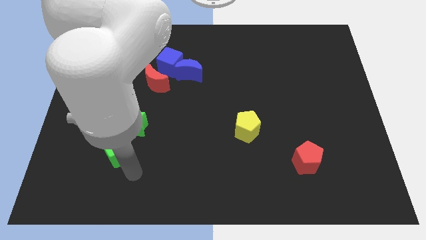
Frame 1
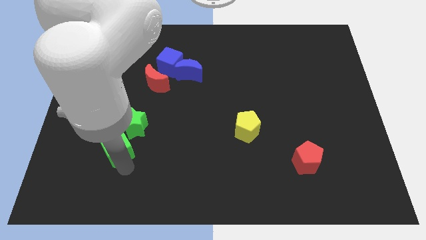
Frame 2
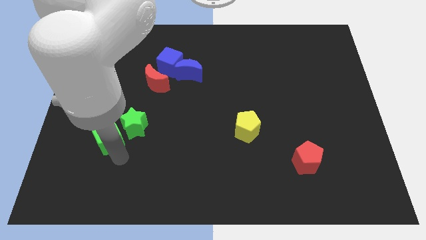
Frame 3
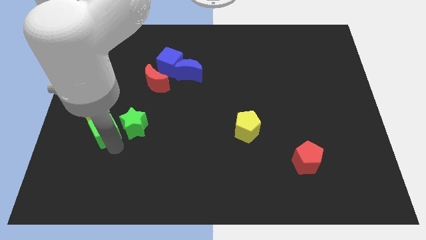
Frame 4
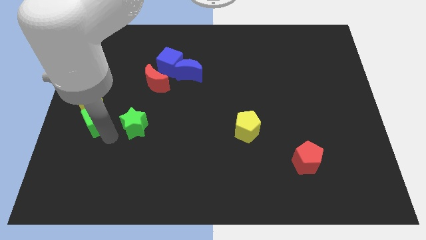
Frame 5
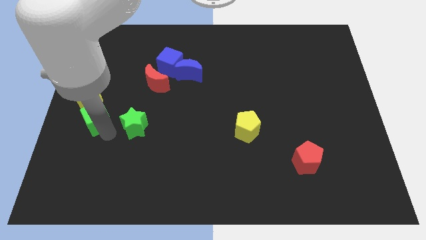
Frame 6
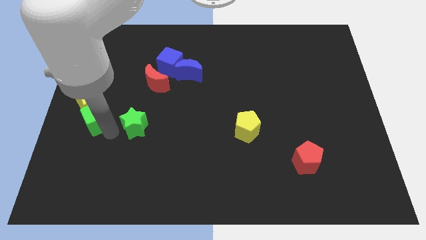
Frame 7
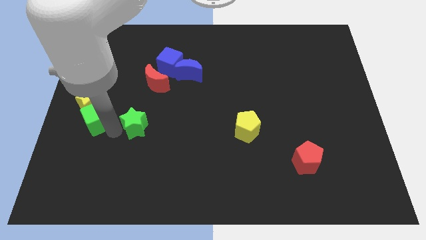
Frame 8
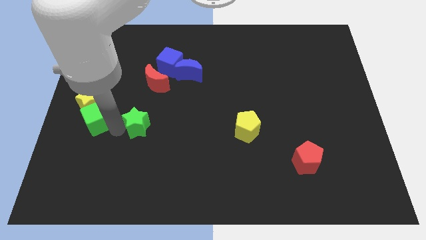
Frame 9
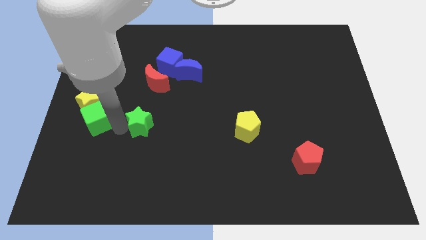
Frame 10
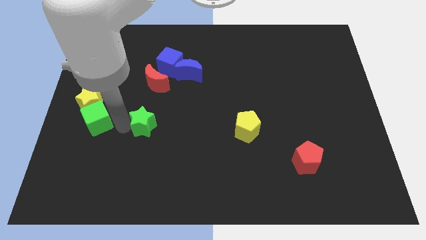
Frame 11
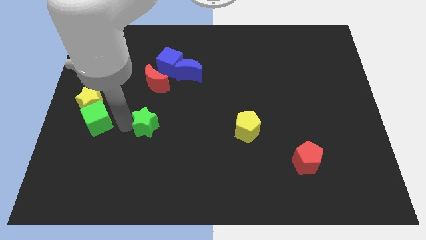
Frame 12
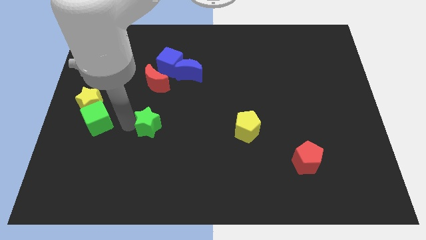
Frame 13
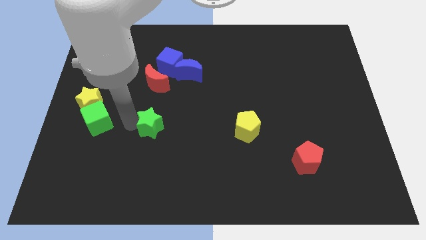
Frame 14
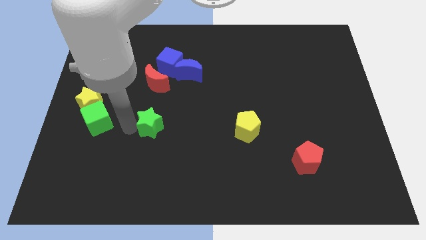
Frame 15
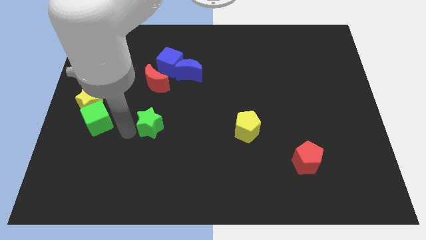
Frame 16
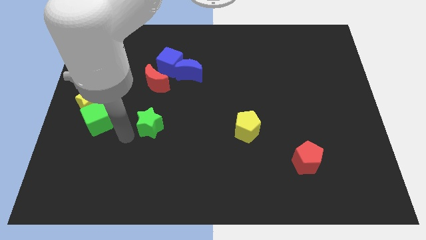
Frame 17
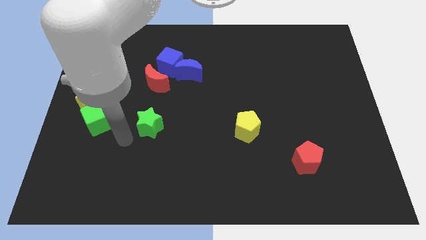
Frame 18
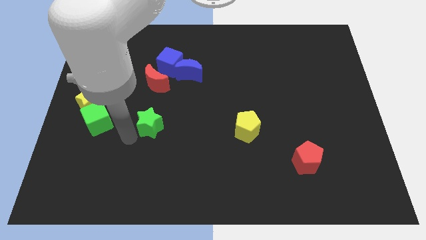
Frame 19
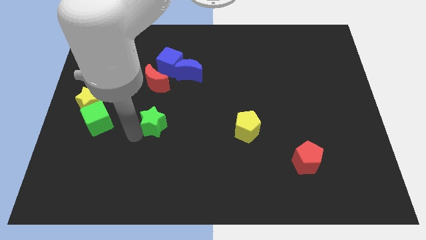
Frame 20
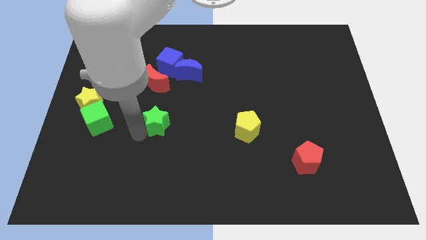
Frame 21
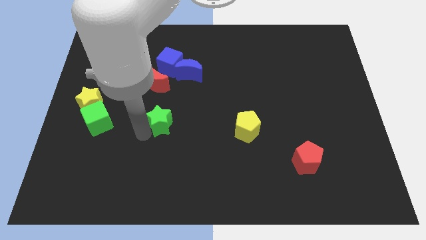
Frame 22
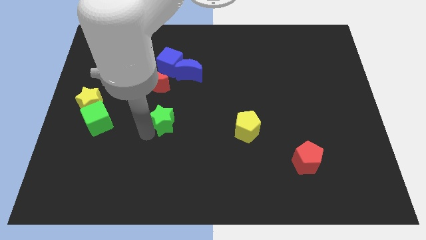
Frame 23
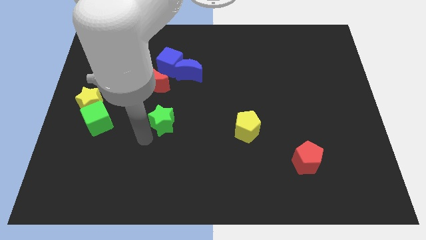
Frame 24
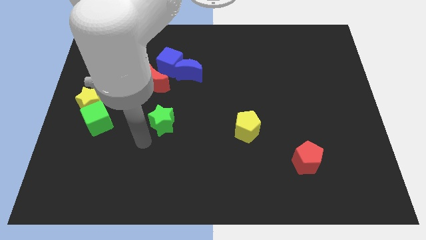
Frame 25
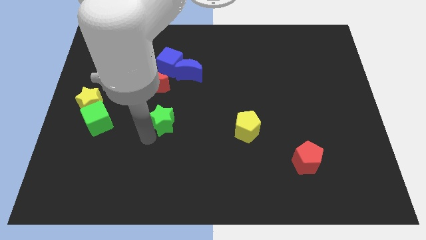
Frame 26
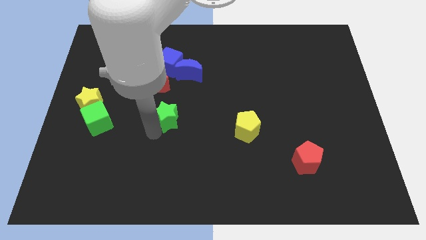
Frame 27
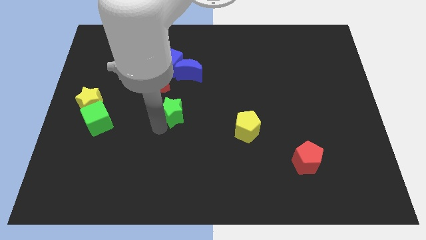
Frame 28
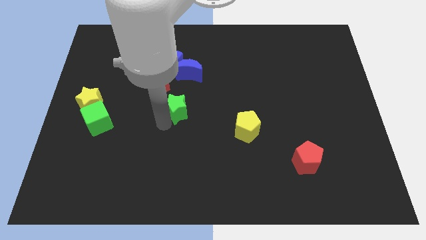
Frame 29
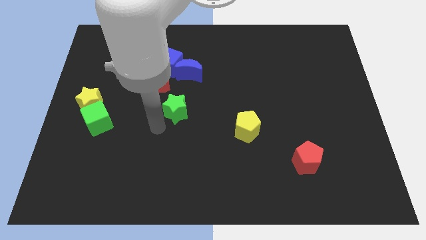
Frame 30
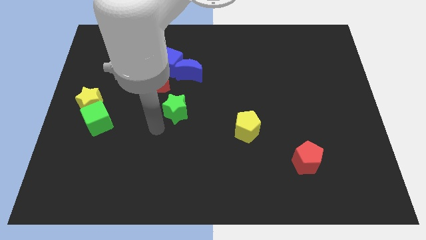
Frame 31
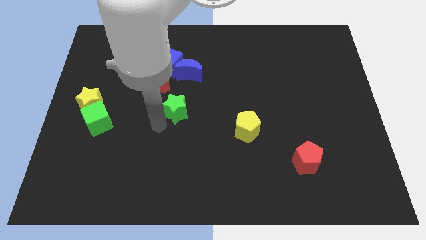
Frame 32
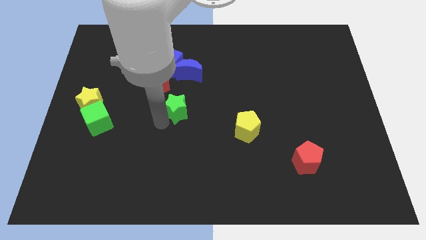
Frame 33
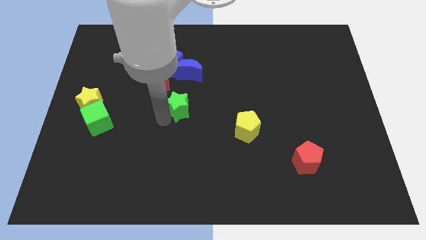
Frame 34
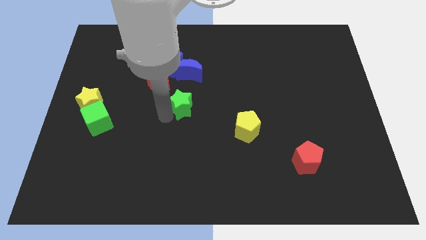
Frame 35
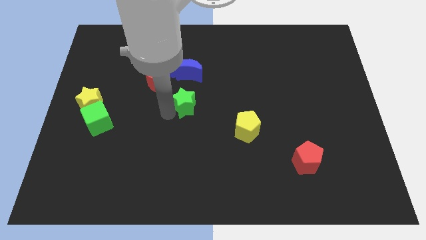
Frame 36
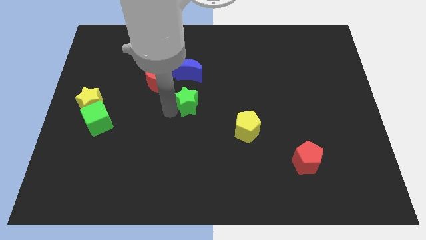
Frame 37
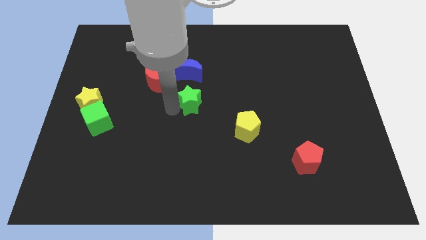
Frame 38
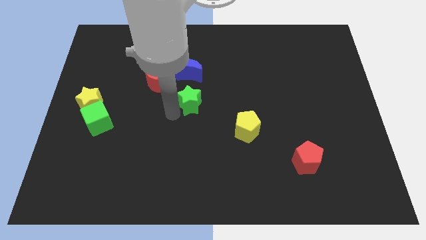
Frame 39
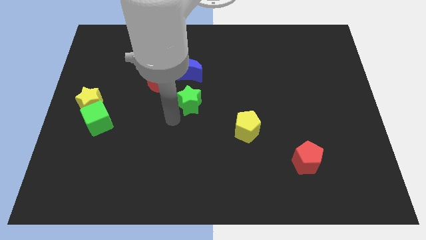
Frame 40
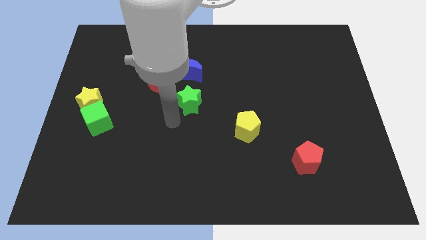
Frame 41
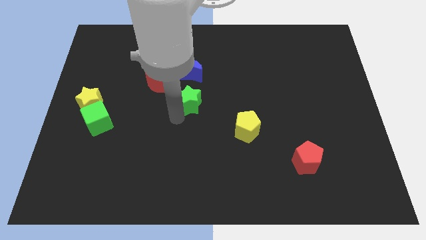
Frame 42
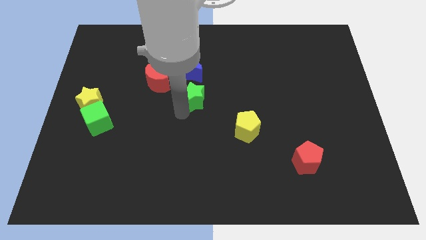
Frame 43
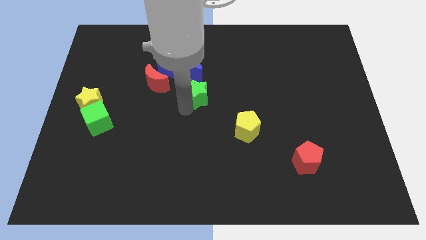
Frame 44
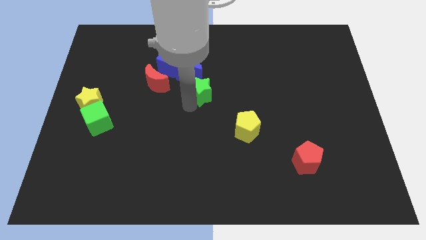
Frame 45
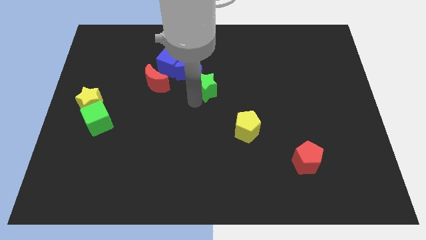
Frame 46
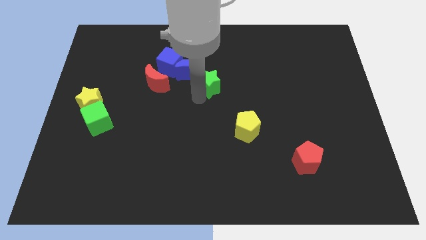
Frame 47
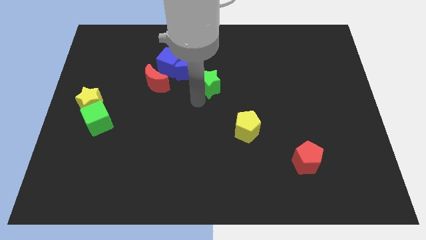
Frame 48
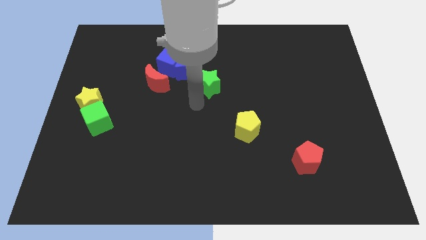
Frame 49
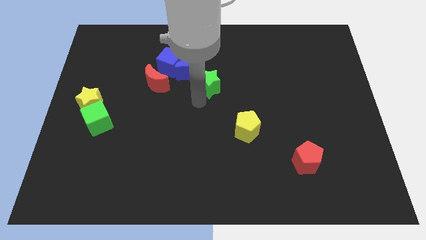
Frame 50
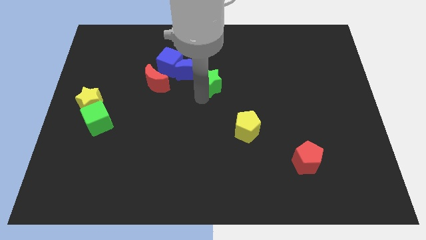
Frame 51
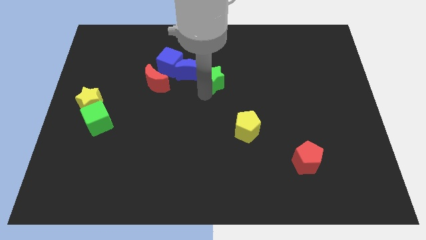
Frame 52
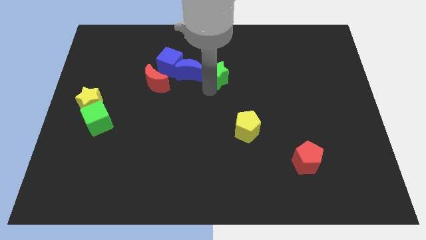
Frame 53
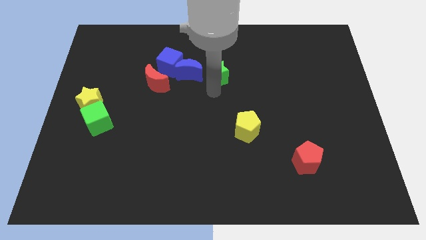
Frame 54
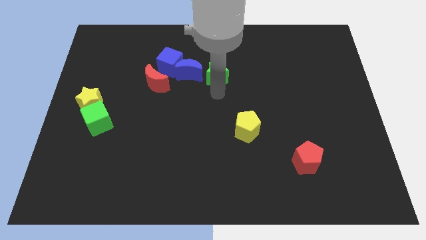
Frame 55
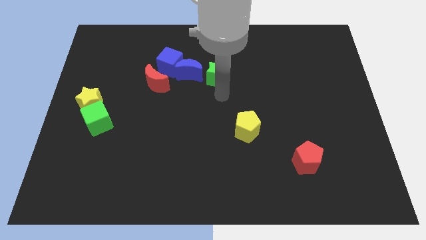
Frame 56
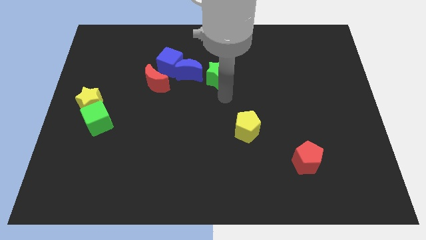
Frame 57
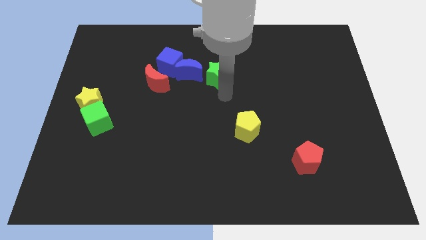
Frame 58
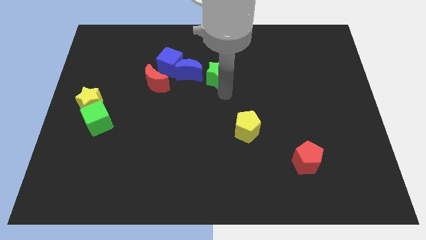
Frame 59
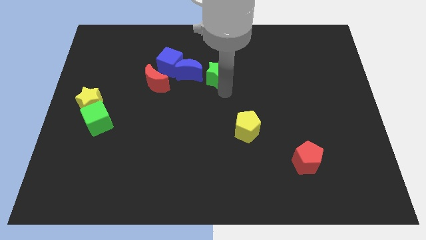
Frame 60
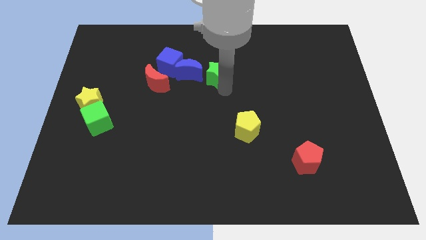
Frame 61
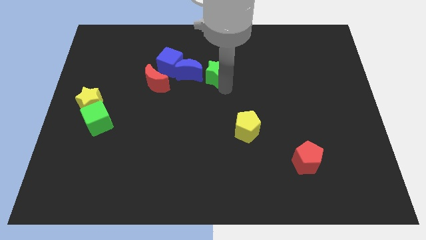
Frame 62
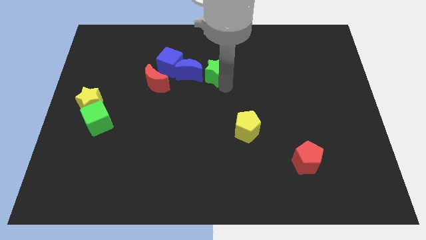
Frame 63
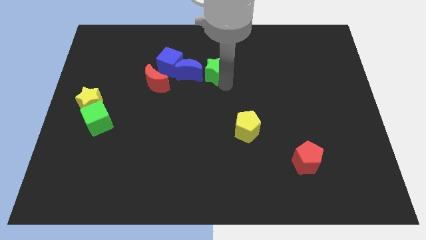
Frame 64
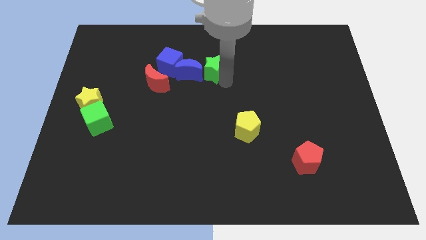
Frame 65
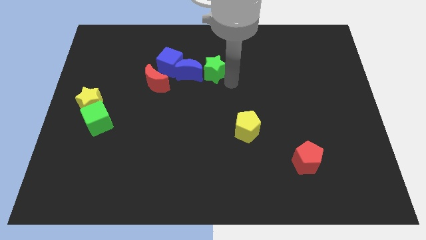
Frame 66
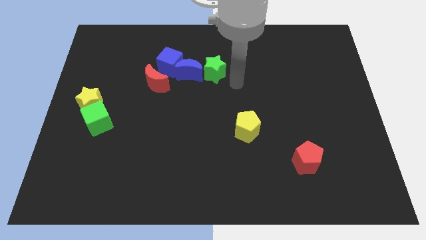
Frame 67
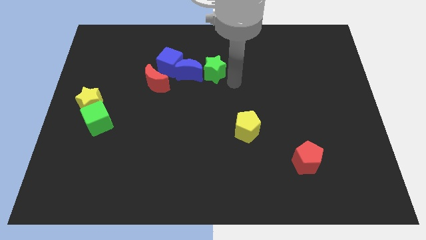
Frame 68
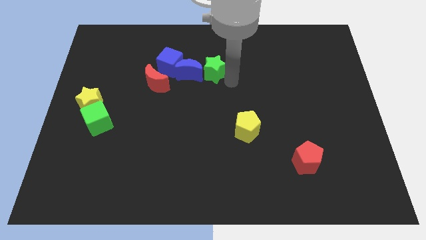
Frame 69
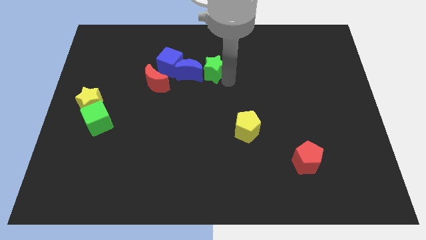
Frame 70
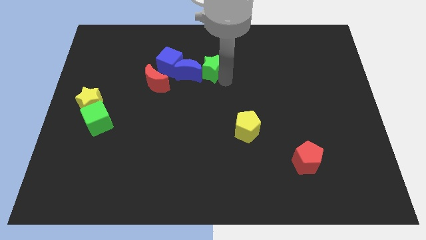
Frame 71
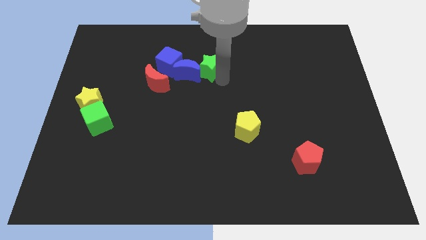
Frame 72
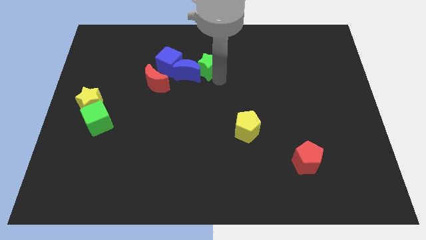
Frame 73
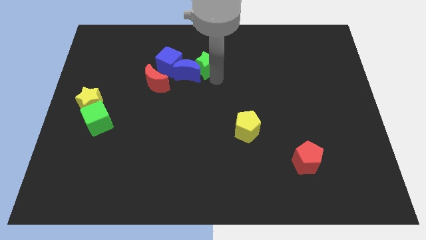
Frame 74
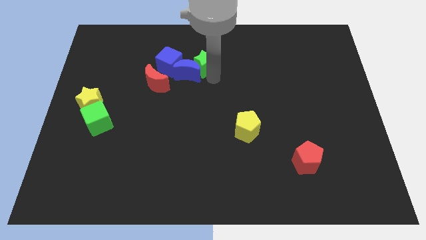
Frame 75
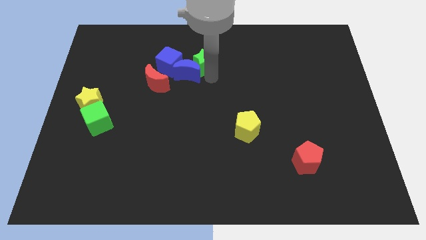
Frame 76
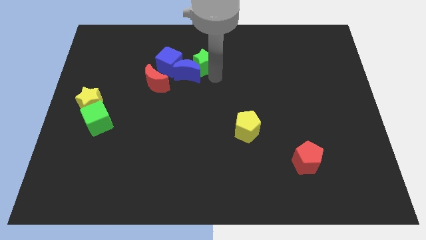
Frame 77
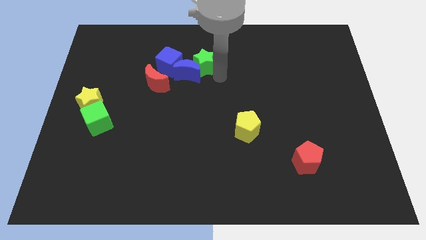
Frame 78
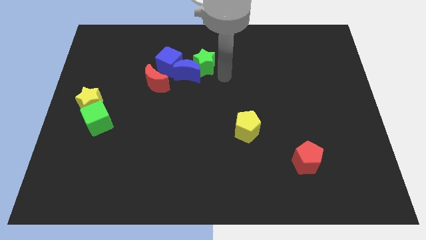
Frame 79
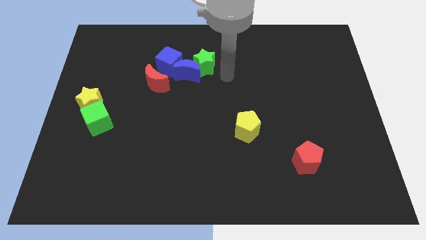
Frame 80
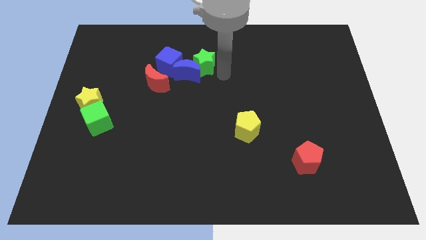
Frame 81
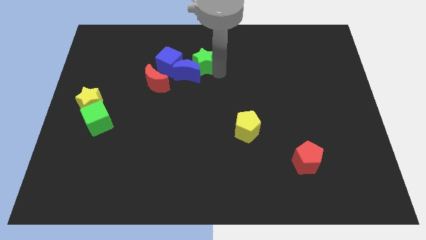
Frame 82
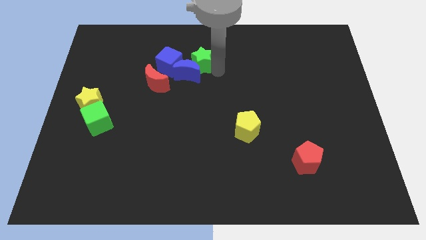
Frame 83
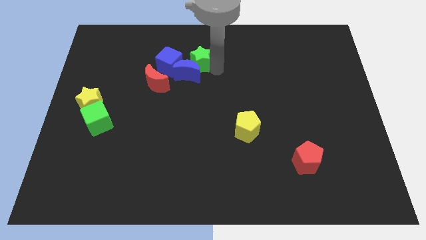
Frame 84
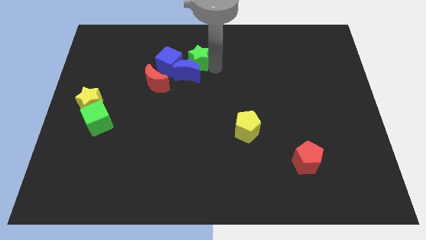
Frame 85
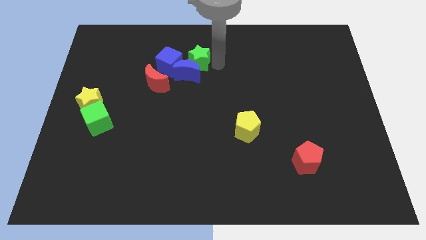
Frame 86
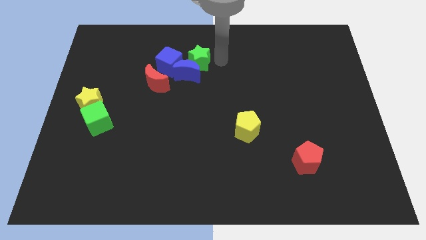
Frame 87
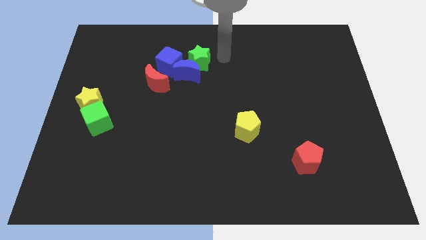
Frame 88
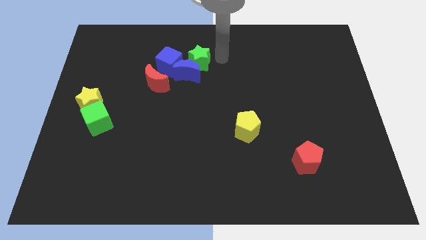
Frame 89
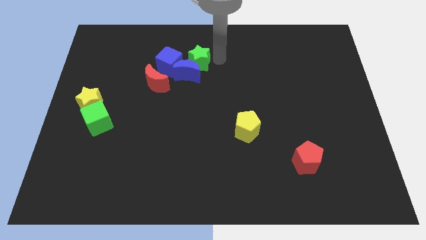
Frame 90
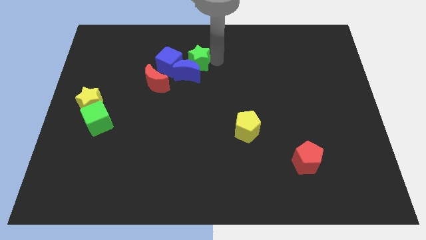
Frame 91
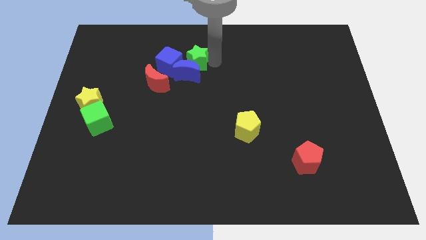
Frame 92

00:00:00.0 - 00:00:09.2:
slide the green star to the top right of the red moon
